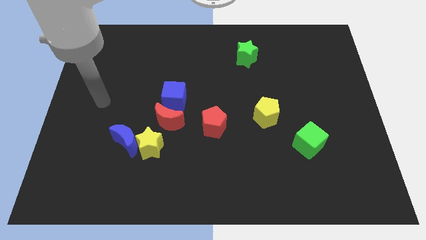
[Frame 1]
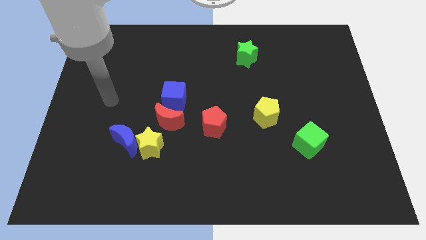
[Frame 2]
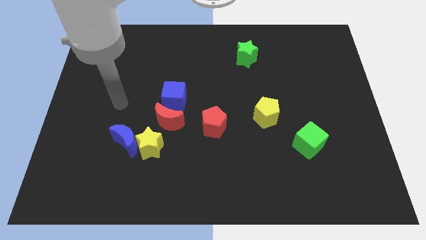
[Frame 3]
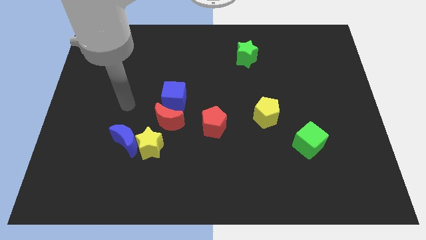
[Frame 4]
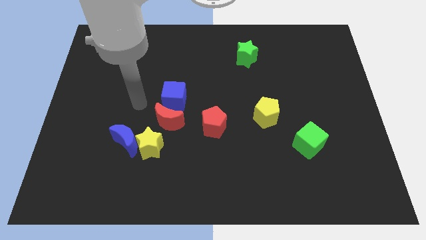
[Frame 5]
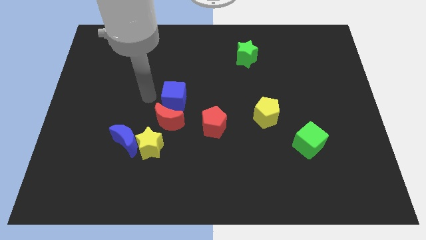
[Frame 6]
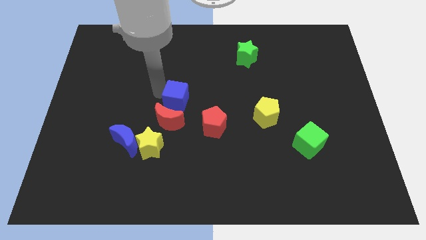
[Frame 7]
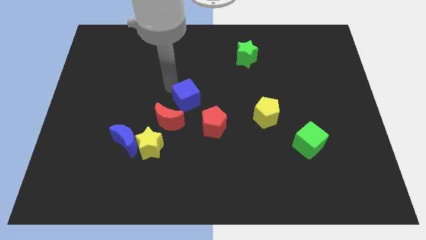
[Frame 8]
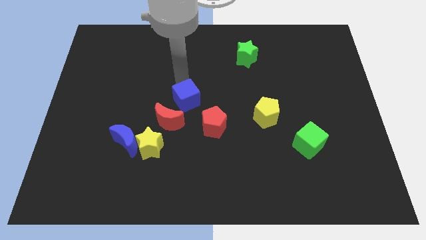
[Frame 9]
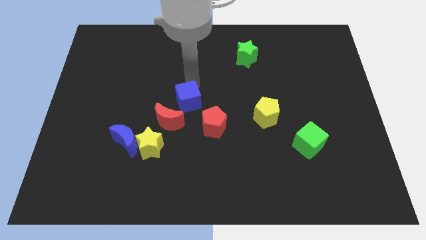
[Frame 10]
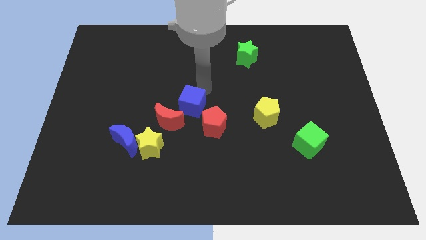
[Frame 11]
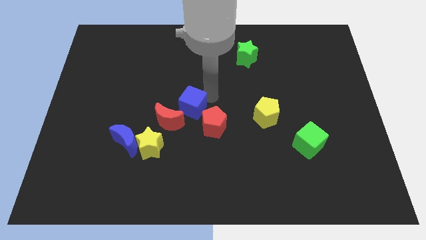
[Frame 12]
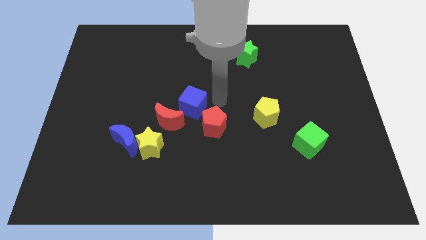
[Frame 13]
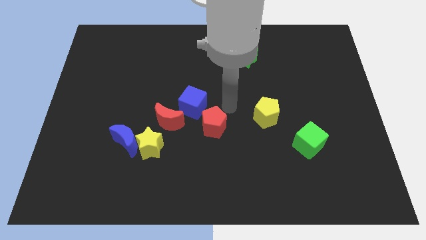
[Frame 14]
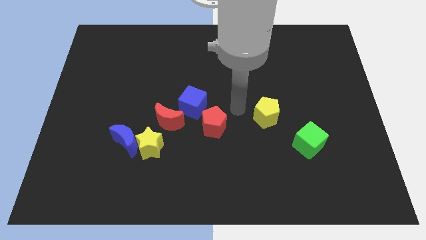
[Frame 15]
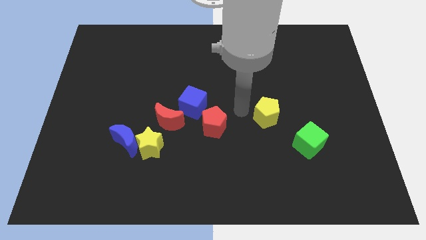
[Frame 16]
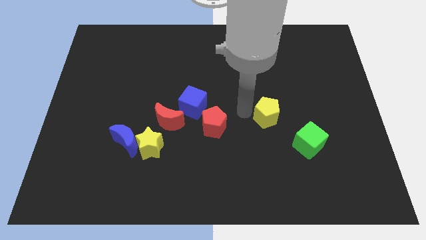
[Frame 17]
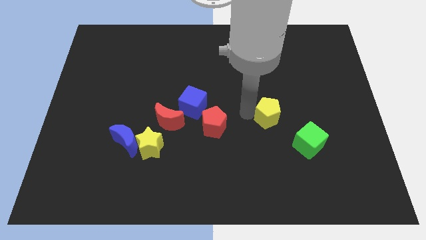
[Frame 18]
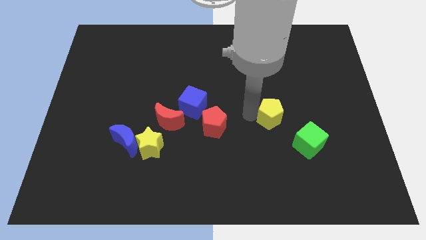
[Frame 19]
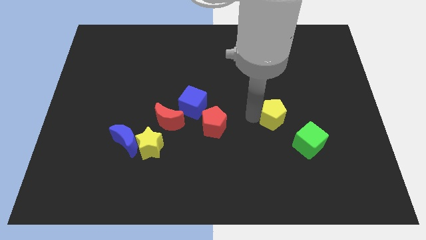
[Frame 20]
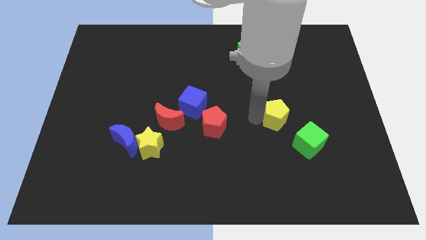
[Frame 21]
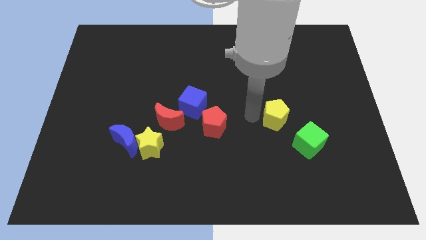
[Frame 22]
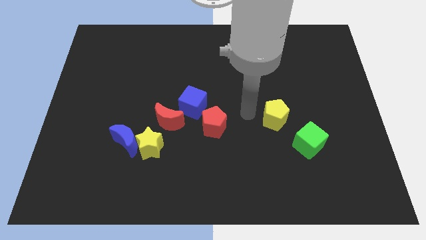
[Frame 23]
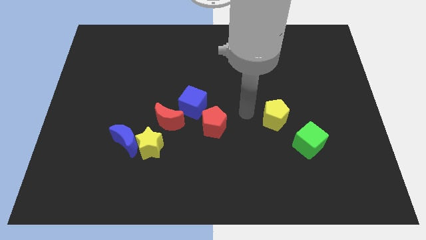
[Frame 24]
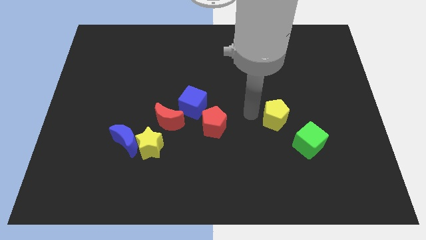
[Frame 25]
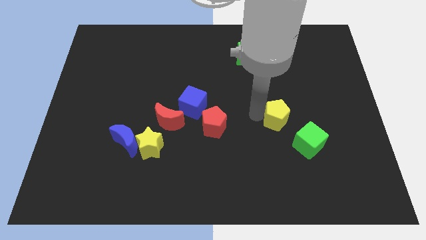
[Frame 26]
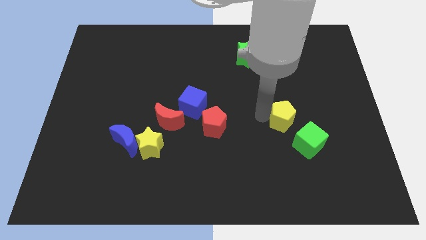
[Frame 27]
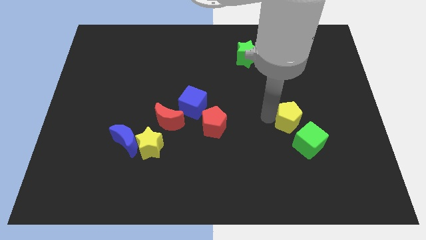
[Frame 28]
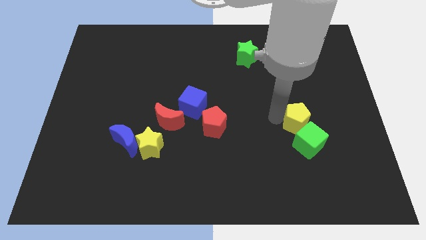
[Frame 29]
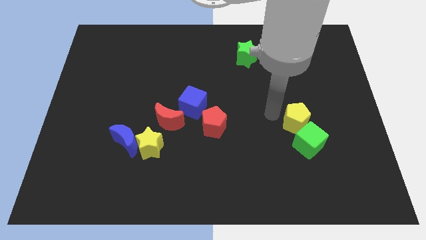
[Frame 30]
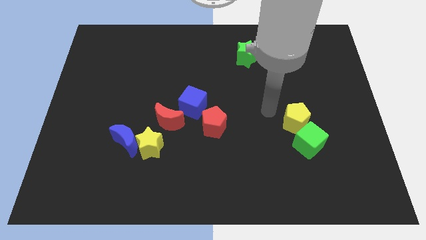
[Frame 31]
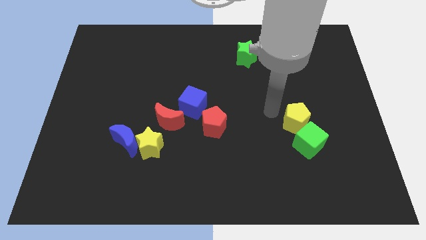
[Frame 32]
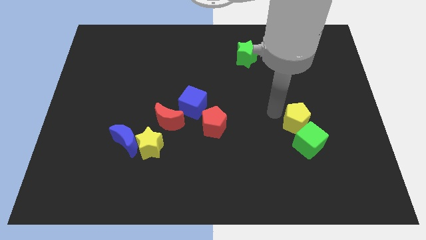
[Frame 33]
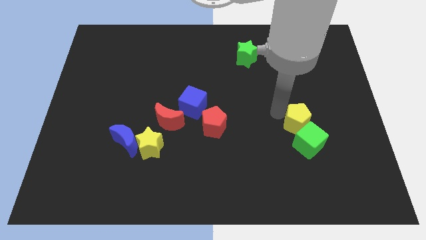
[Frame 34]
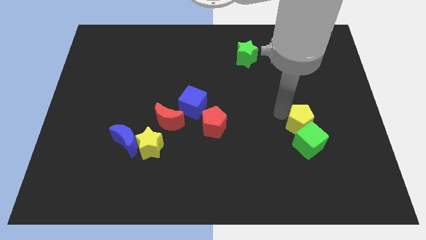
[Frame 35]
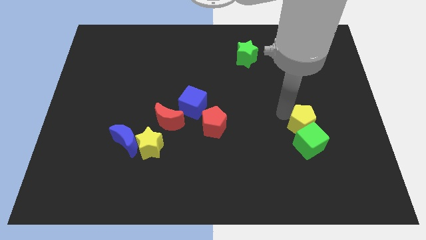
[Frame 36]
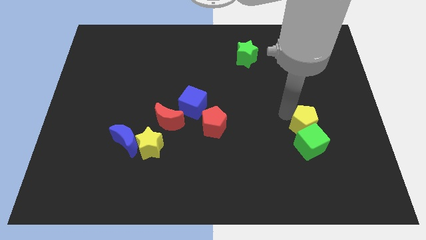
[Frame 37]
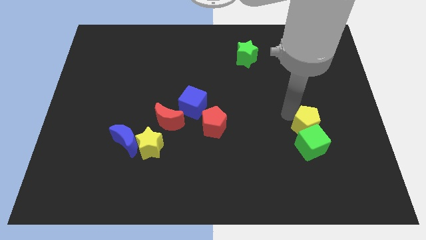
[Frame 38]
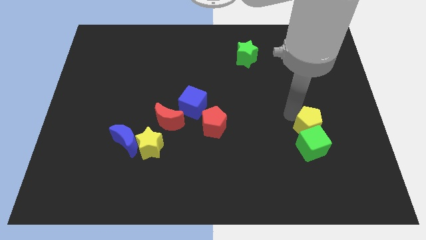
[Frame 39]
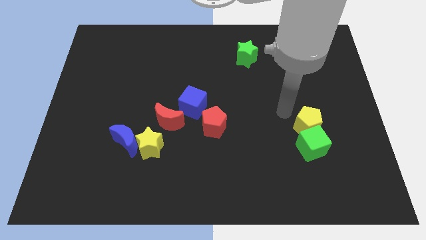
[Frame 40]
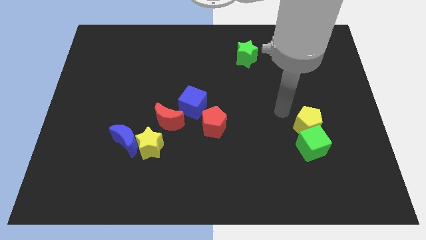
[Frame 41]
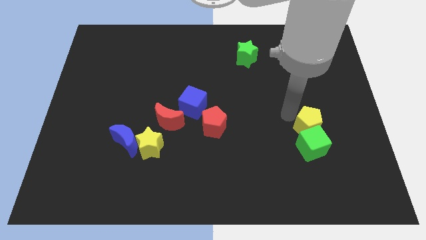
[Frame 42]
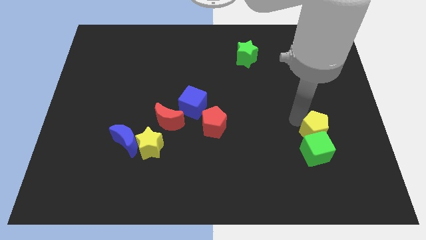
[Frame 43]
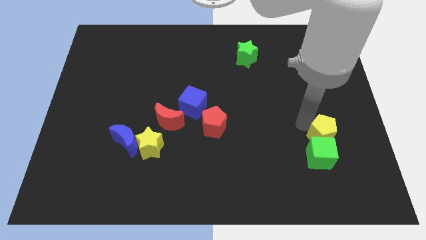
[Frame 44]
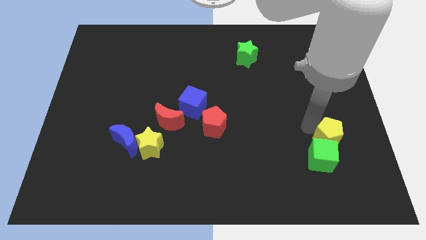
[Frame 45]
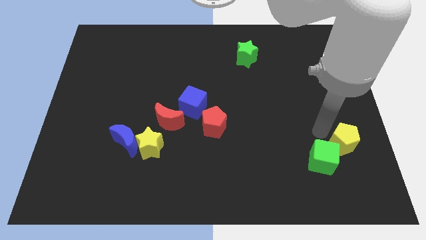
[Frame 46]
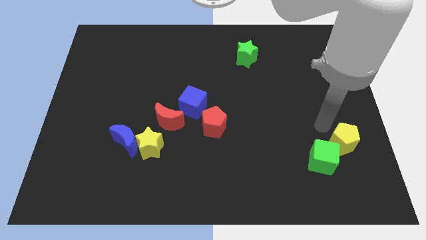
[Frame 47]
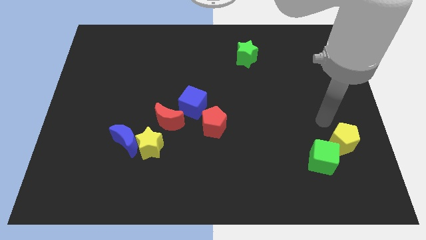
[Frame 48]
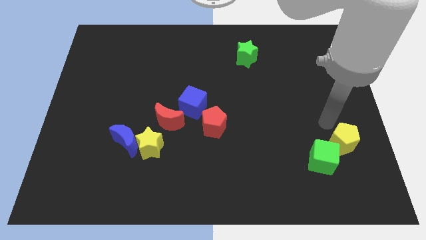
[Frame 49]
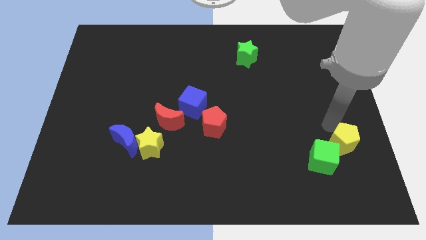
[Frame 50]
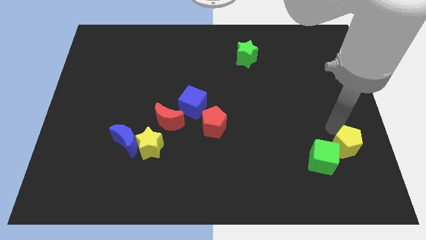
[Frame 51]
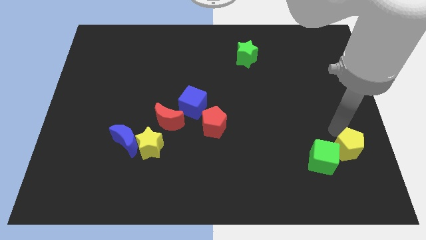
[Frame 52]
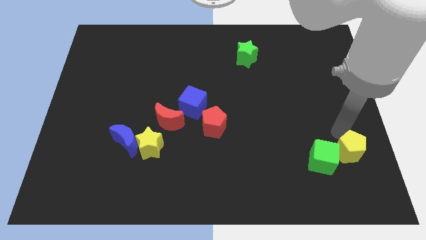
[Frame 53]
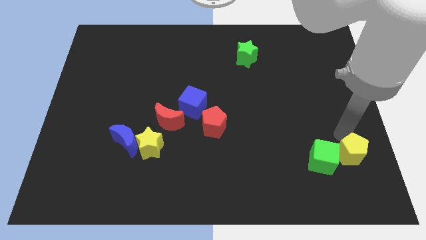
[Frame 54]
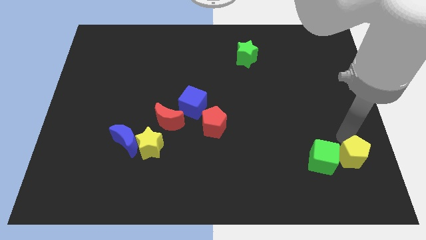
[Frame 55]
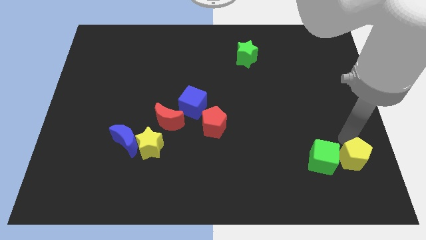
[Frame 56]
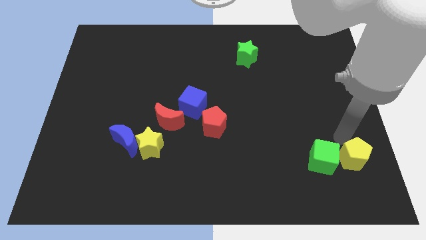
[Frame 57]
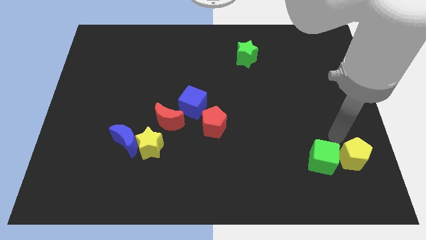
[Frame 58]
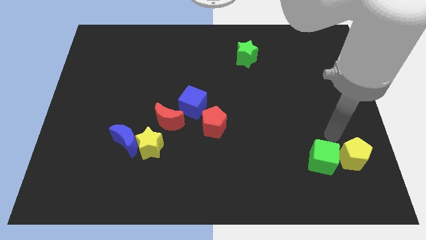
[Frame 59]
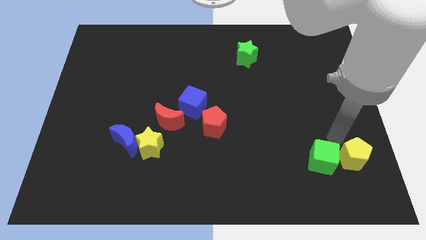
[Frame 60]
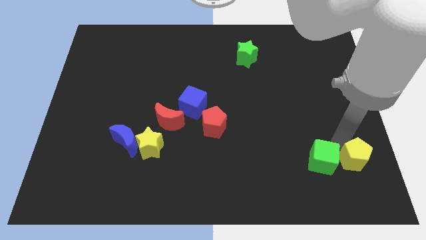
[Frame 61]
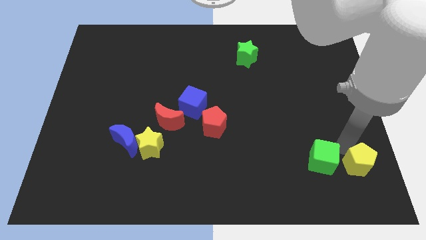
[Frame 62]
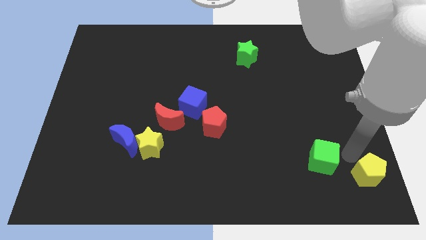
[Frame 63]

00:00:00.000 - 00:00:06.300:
push the yellow pentagon to the bottom right corner
